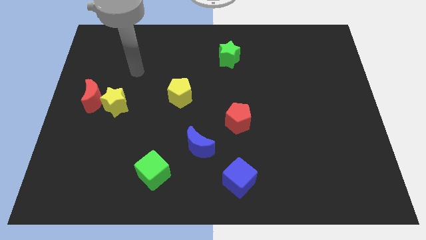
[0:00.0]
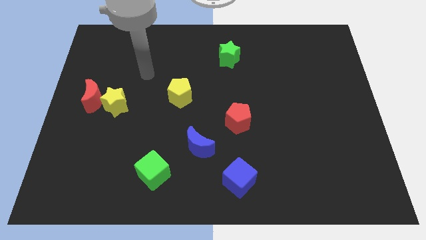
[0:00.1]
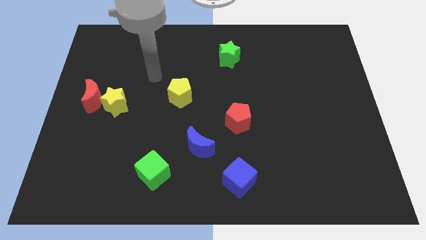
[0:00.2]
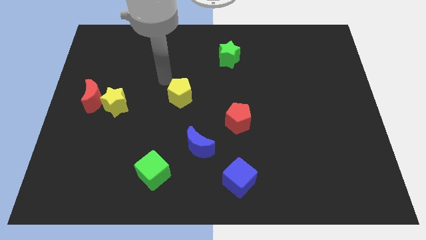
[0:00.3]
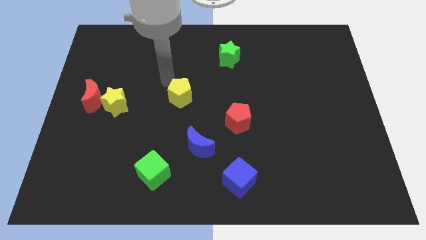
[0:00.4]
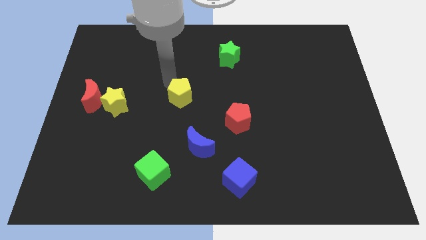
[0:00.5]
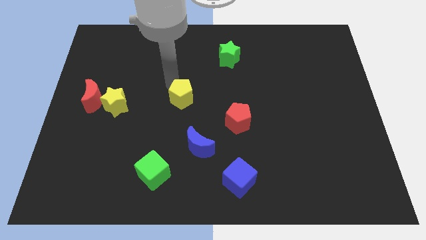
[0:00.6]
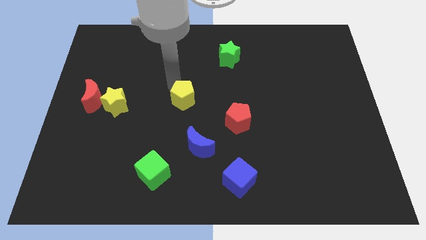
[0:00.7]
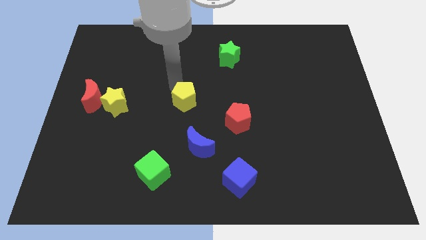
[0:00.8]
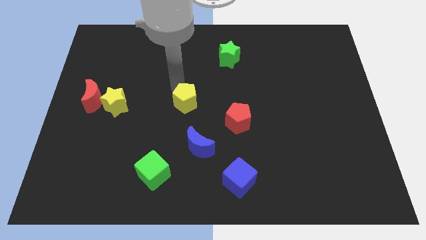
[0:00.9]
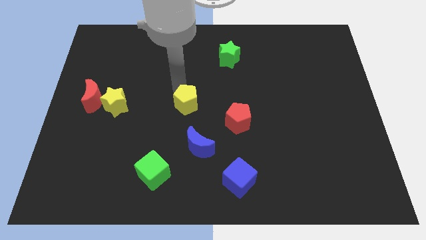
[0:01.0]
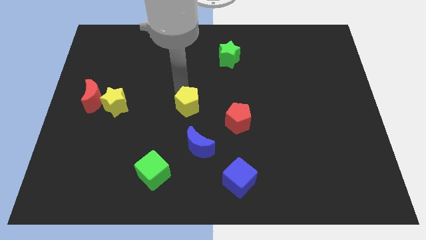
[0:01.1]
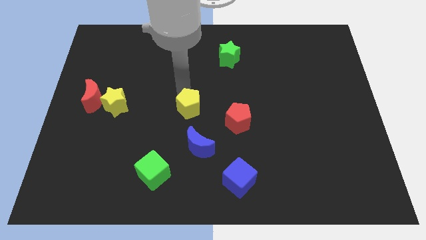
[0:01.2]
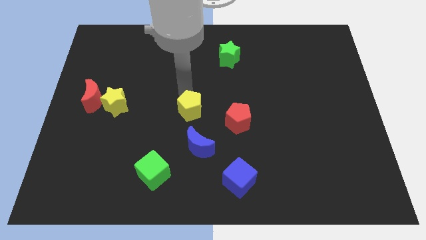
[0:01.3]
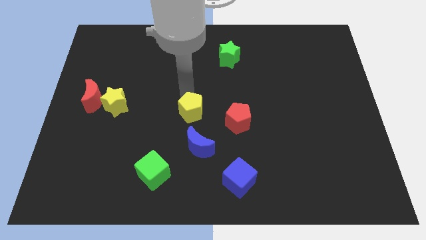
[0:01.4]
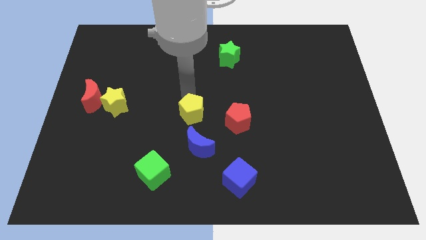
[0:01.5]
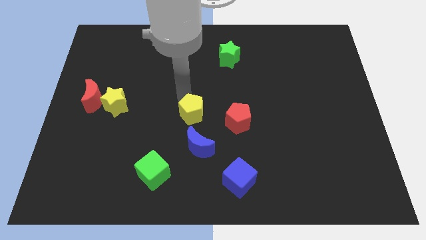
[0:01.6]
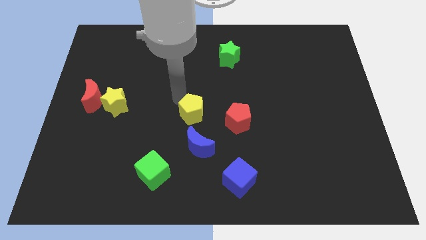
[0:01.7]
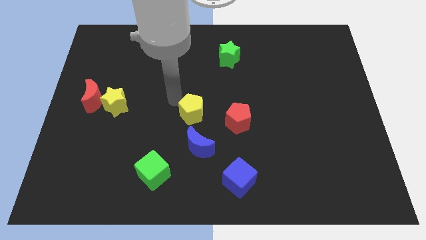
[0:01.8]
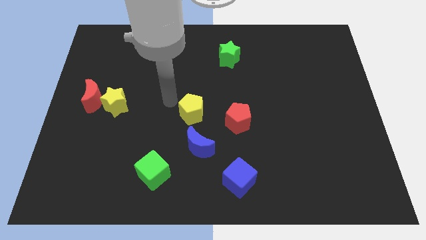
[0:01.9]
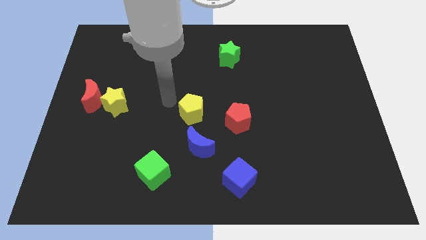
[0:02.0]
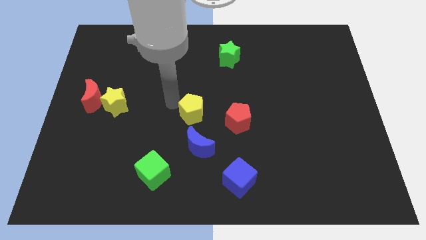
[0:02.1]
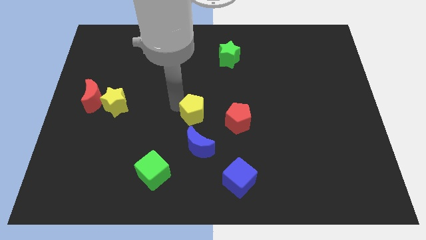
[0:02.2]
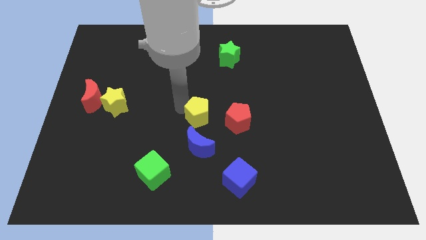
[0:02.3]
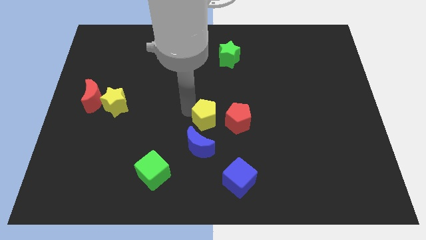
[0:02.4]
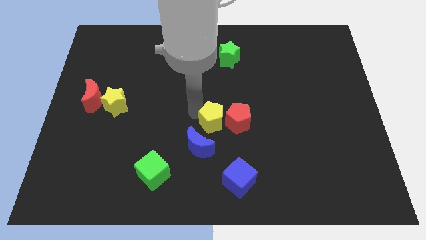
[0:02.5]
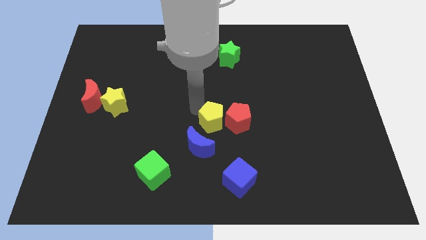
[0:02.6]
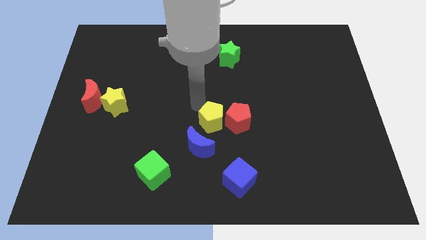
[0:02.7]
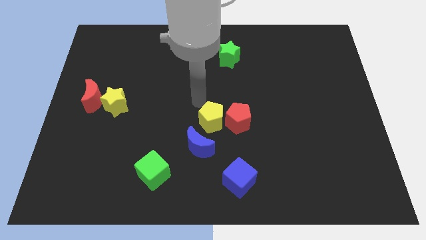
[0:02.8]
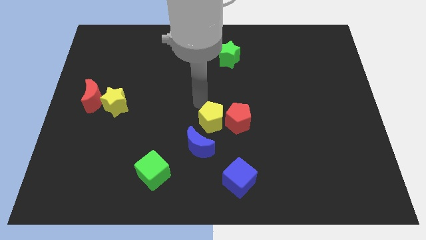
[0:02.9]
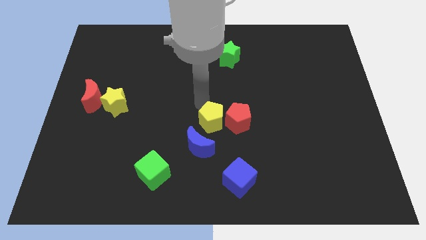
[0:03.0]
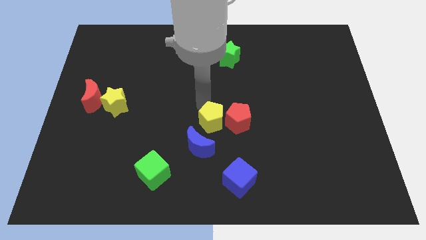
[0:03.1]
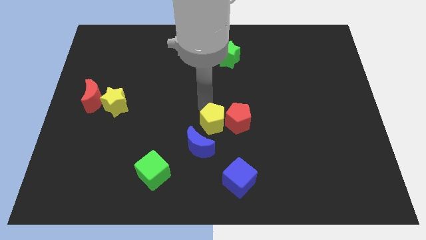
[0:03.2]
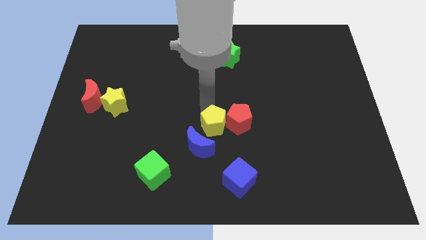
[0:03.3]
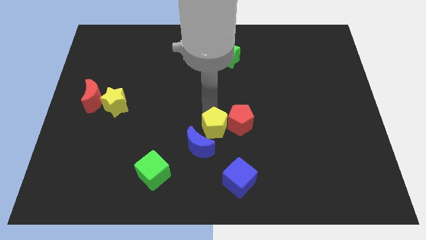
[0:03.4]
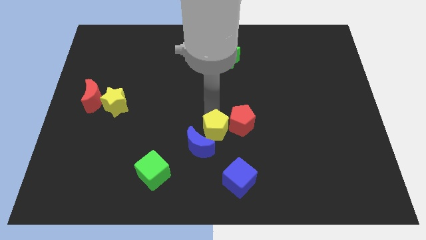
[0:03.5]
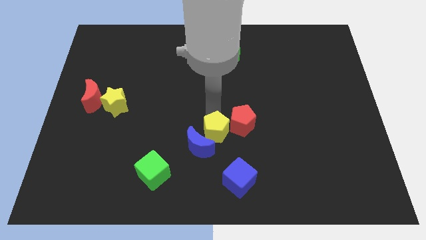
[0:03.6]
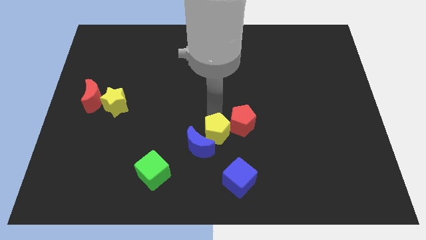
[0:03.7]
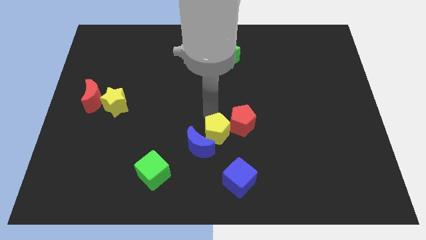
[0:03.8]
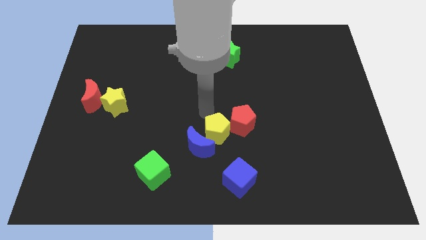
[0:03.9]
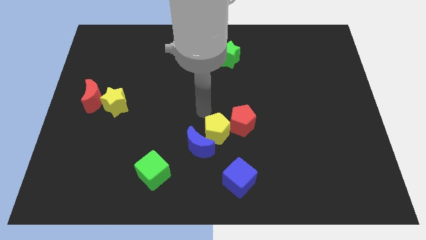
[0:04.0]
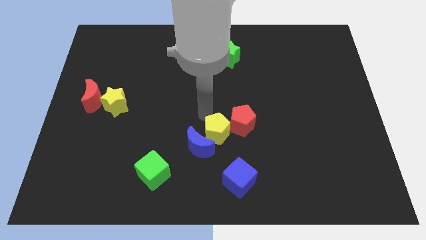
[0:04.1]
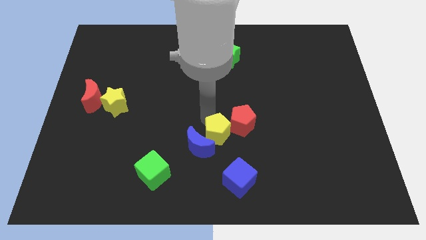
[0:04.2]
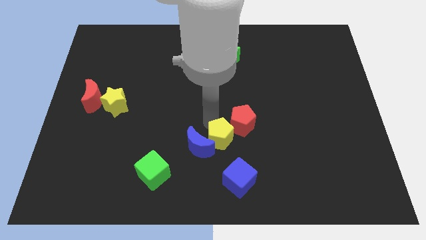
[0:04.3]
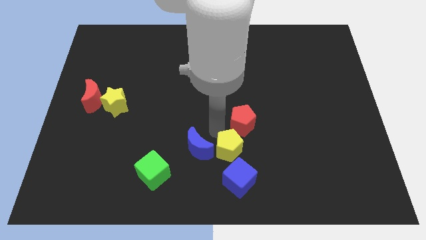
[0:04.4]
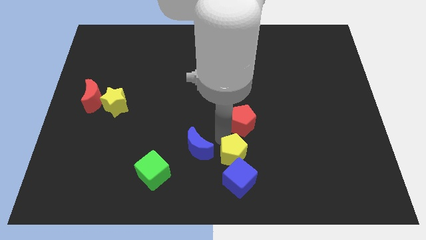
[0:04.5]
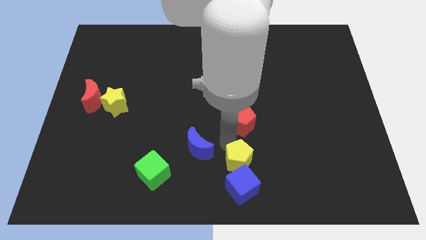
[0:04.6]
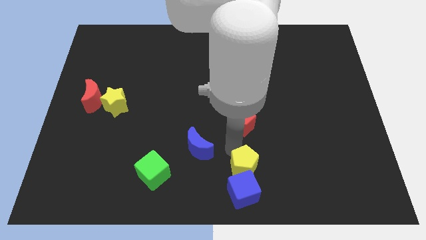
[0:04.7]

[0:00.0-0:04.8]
slide the yellow pentagon to the blue cube

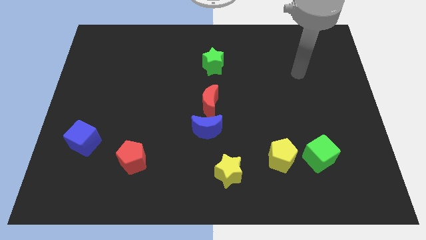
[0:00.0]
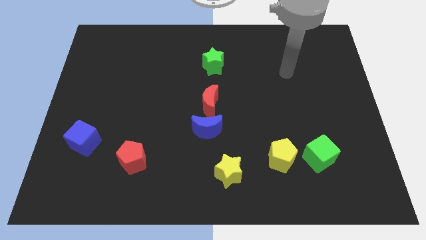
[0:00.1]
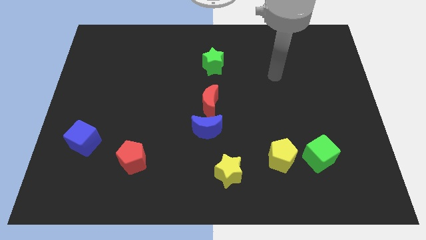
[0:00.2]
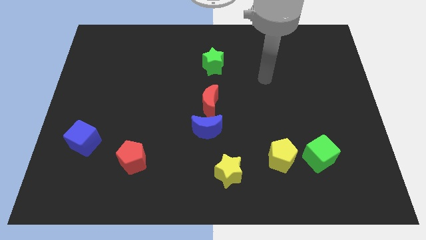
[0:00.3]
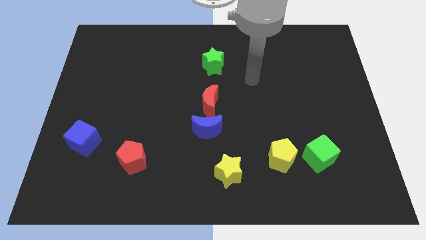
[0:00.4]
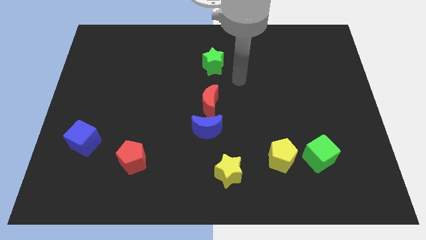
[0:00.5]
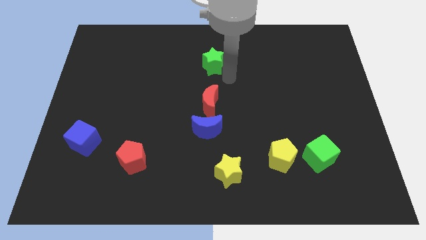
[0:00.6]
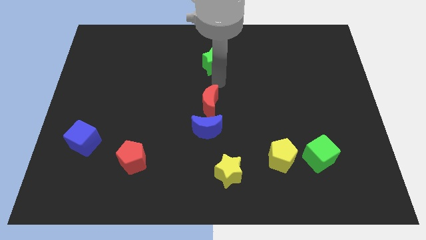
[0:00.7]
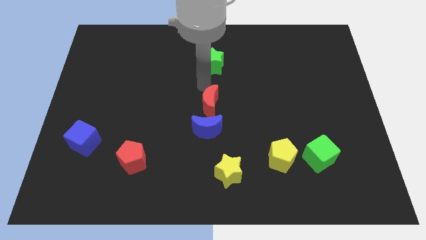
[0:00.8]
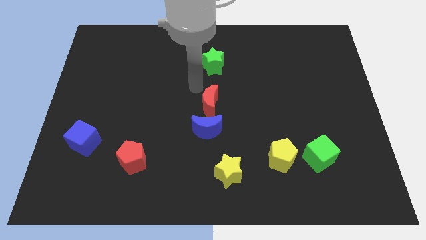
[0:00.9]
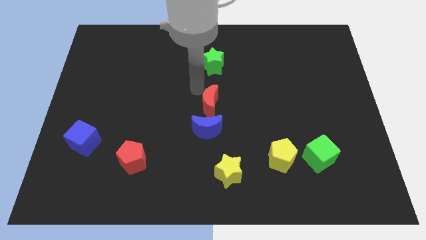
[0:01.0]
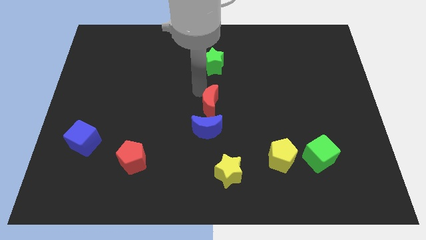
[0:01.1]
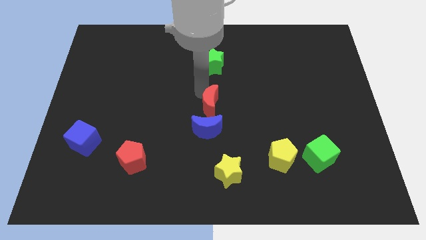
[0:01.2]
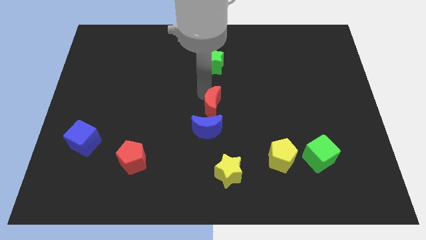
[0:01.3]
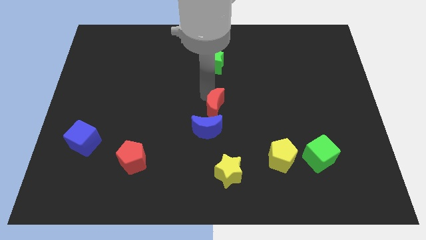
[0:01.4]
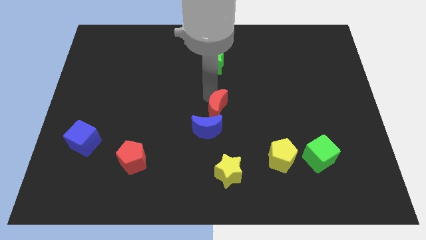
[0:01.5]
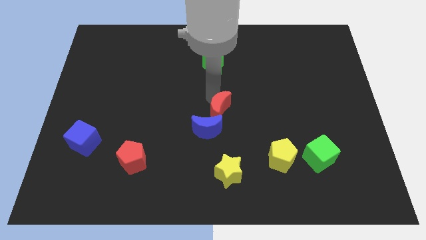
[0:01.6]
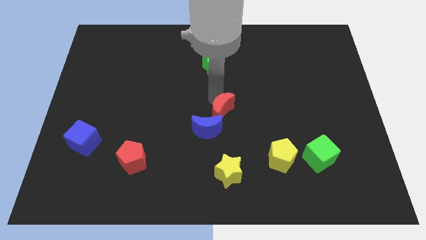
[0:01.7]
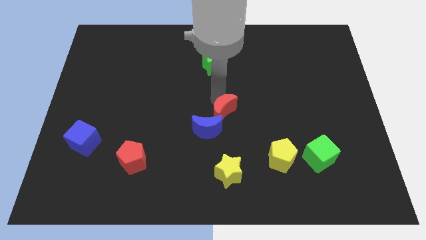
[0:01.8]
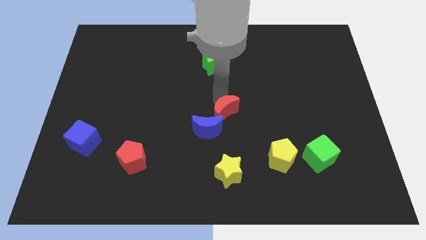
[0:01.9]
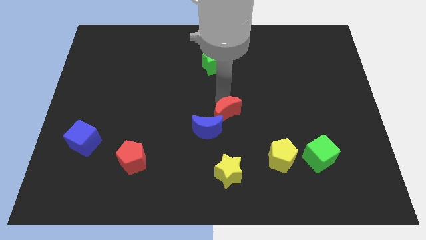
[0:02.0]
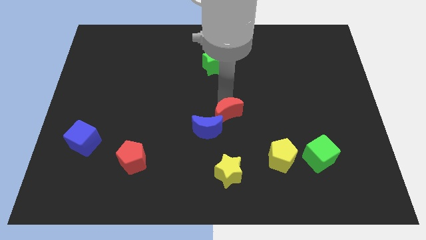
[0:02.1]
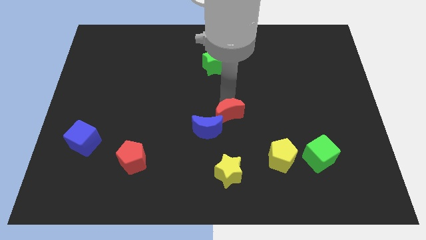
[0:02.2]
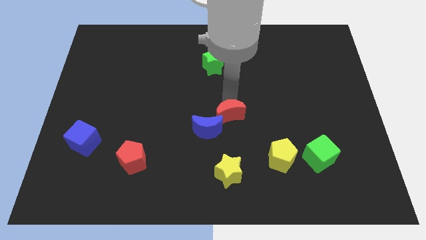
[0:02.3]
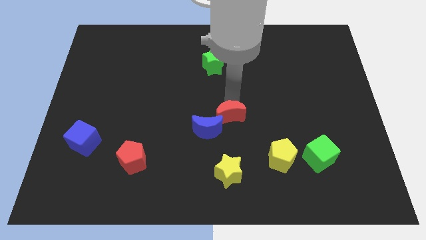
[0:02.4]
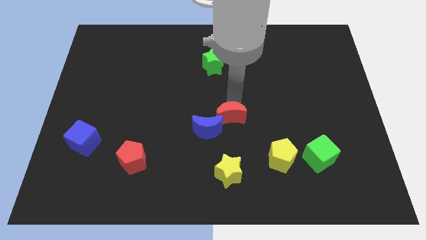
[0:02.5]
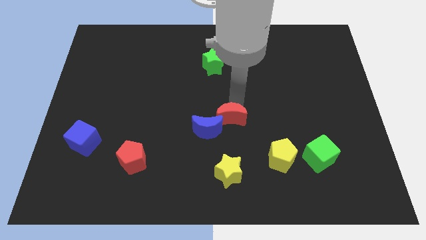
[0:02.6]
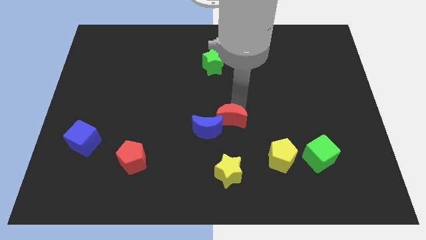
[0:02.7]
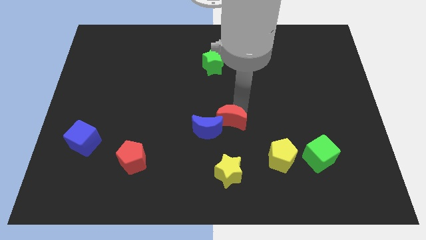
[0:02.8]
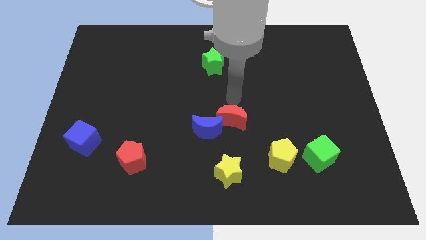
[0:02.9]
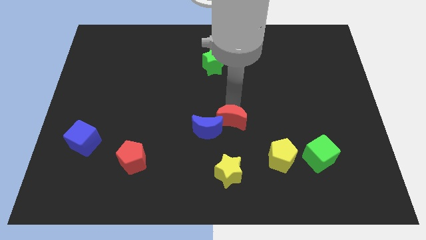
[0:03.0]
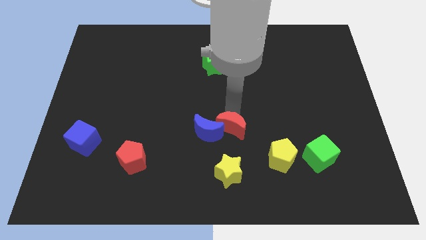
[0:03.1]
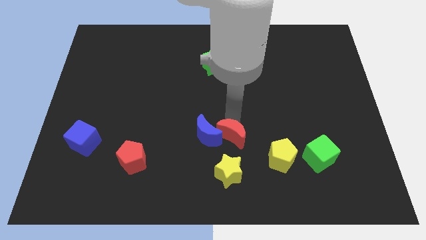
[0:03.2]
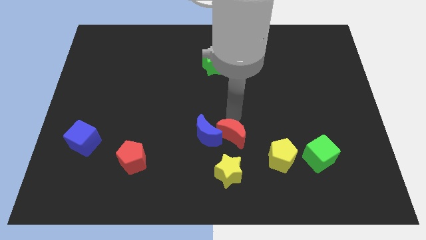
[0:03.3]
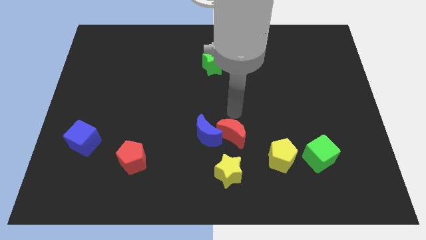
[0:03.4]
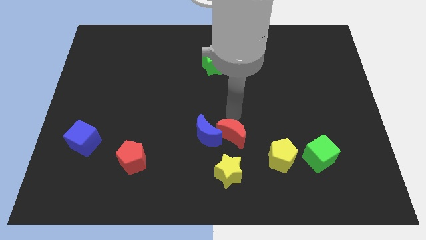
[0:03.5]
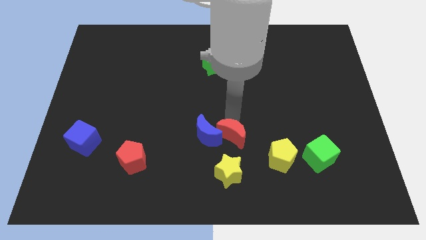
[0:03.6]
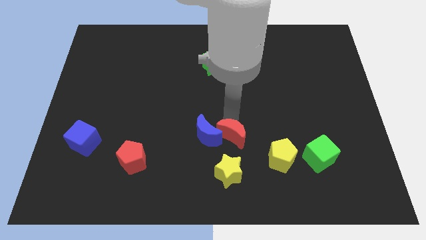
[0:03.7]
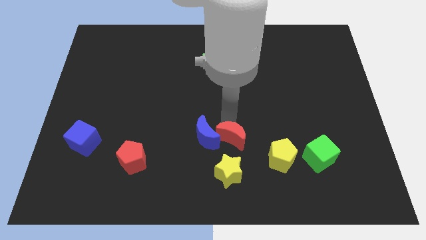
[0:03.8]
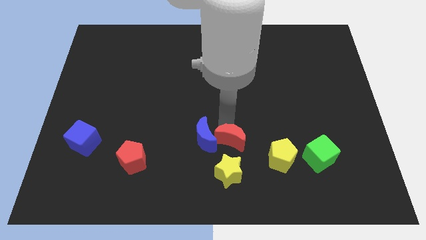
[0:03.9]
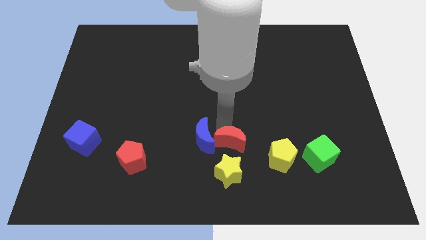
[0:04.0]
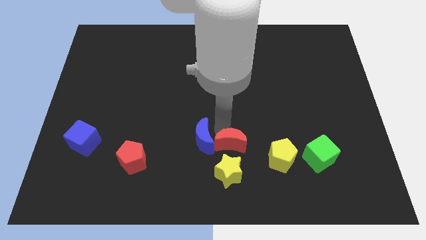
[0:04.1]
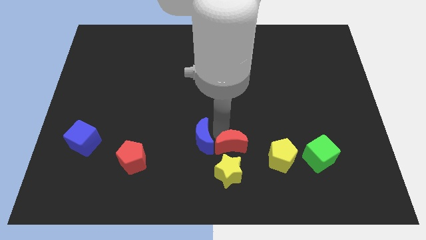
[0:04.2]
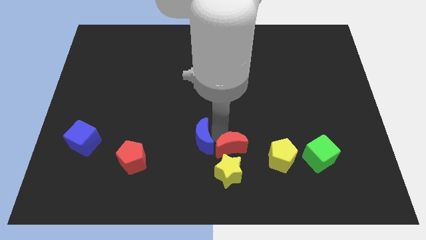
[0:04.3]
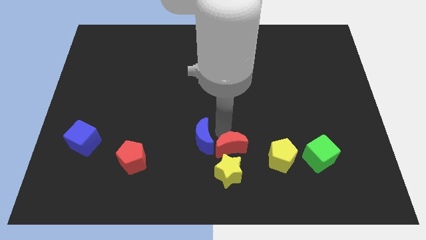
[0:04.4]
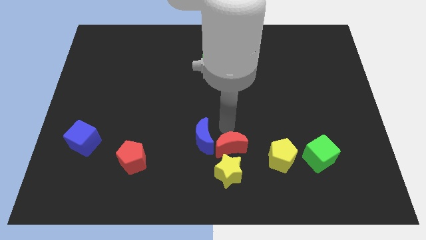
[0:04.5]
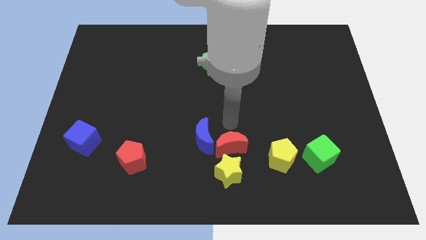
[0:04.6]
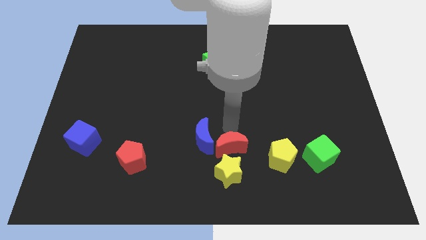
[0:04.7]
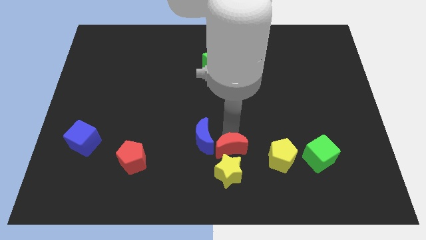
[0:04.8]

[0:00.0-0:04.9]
slide the red moon close to the yellow star
